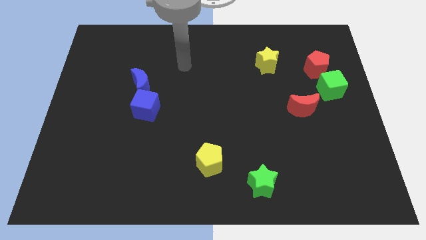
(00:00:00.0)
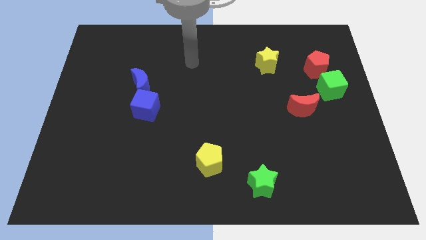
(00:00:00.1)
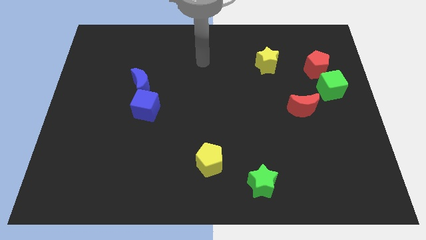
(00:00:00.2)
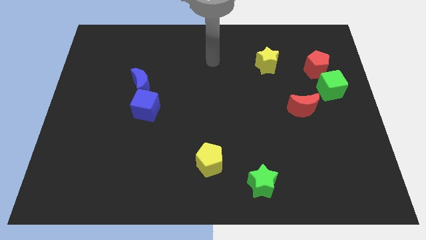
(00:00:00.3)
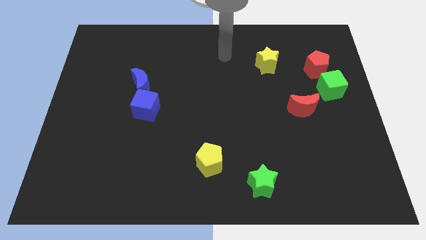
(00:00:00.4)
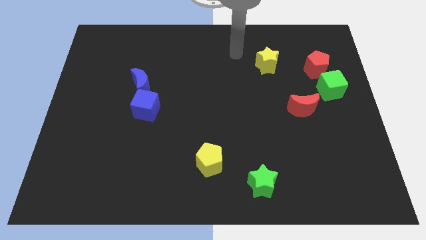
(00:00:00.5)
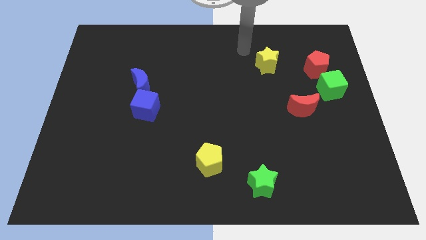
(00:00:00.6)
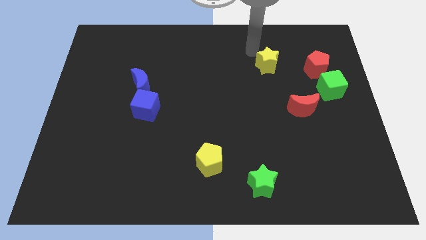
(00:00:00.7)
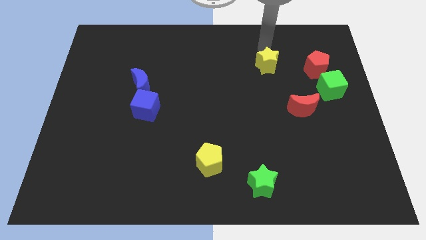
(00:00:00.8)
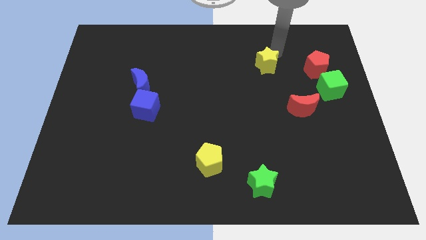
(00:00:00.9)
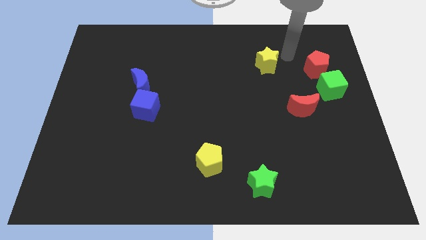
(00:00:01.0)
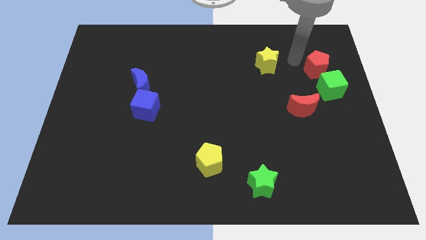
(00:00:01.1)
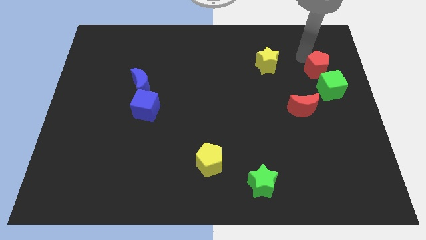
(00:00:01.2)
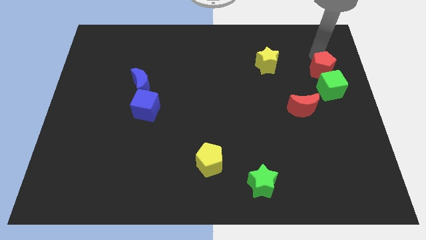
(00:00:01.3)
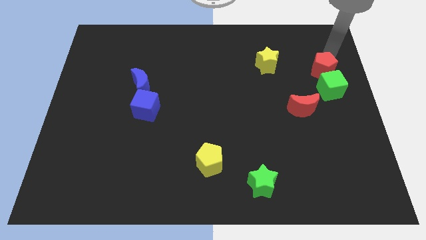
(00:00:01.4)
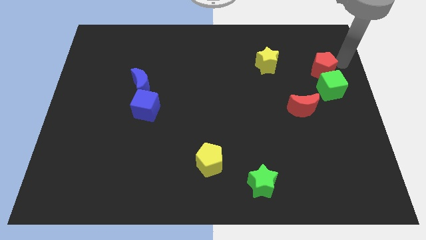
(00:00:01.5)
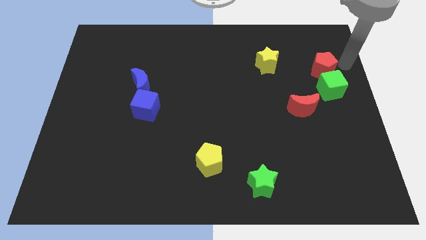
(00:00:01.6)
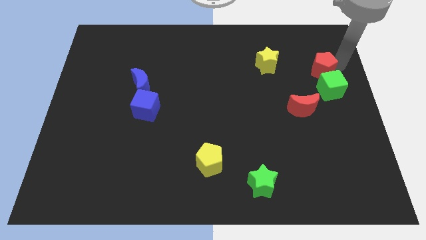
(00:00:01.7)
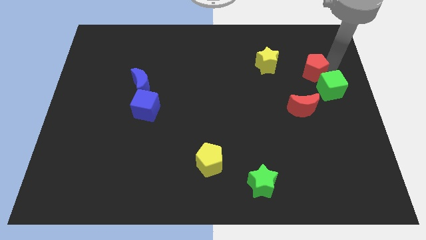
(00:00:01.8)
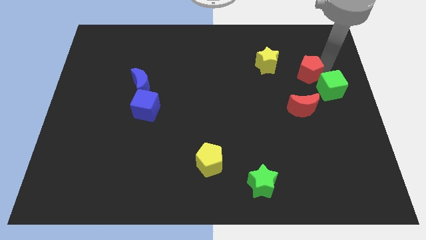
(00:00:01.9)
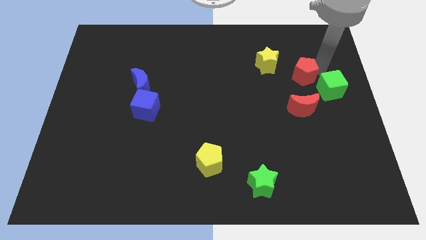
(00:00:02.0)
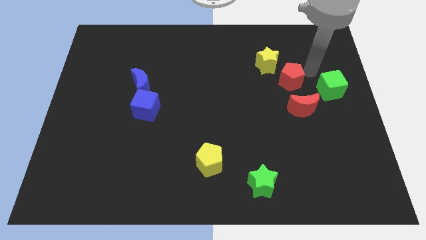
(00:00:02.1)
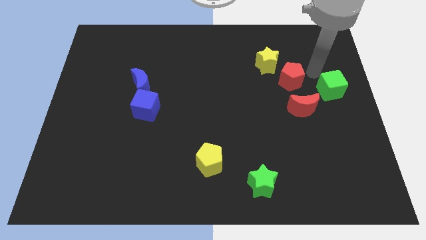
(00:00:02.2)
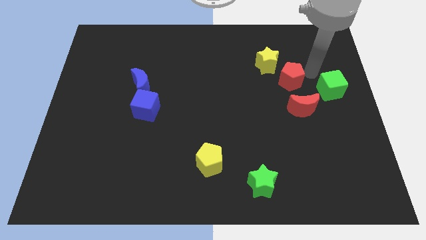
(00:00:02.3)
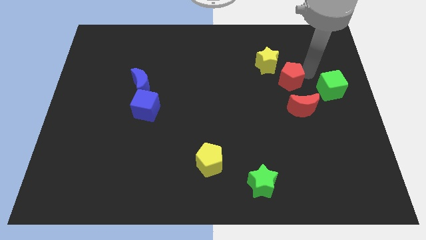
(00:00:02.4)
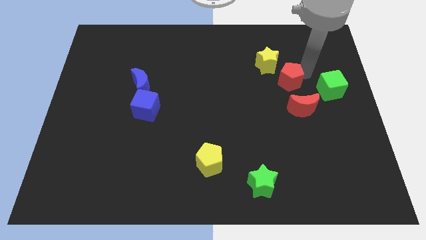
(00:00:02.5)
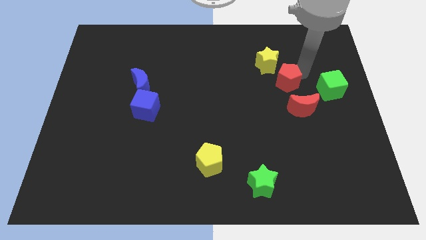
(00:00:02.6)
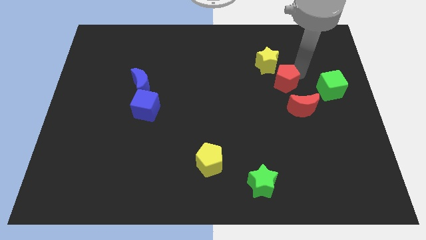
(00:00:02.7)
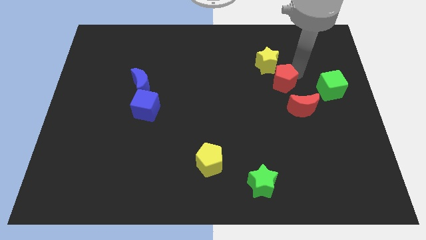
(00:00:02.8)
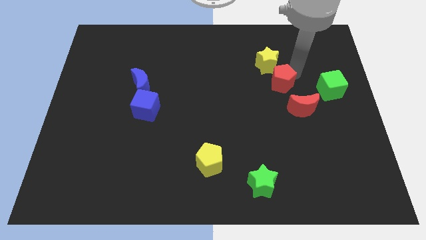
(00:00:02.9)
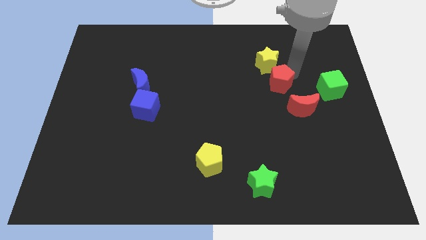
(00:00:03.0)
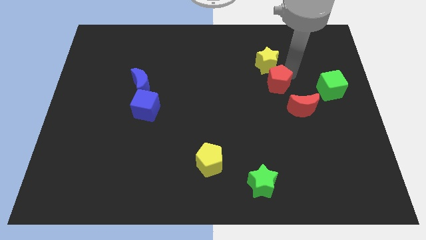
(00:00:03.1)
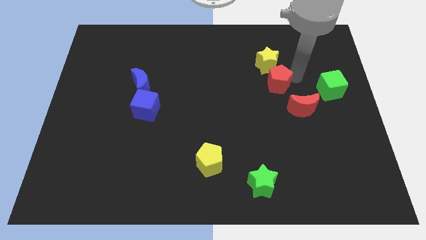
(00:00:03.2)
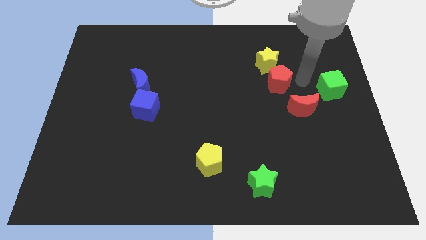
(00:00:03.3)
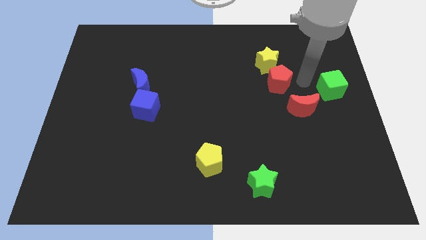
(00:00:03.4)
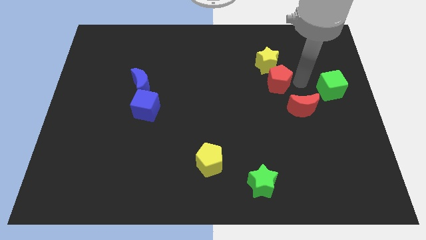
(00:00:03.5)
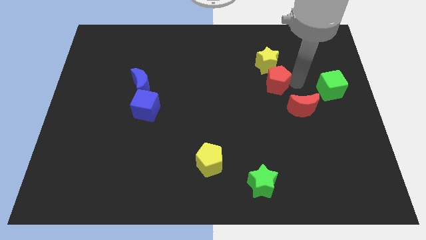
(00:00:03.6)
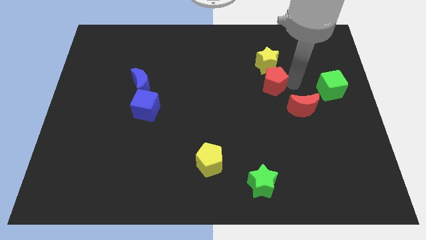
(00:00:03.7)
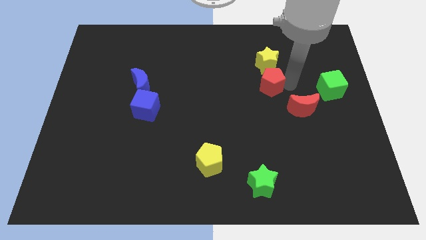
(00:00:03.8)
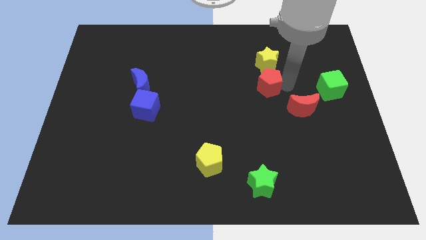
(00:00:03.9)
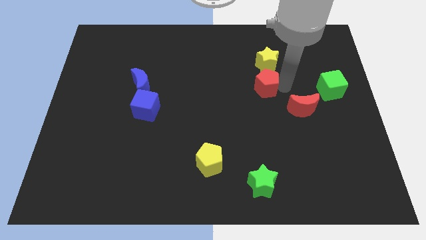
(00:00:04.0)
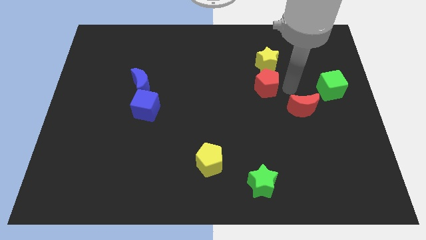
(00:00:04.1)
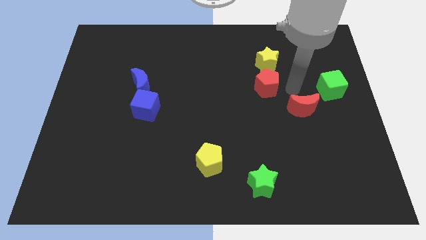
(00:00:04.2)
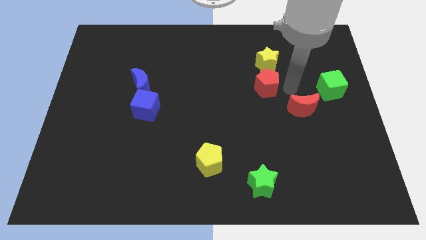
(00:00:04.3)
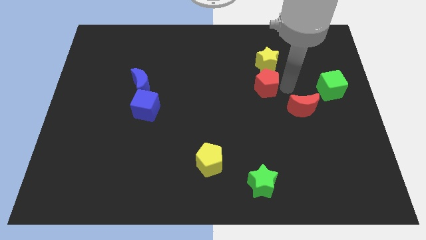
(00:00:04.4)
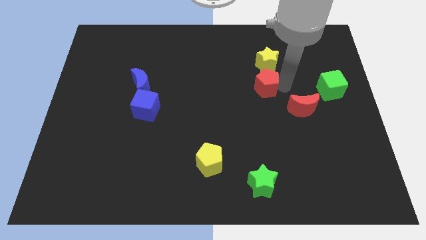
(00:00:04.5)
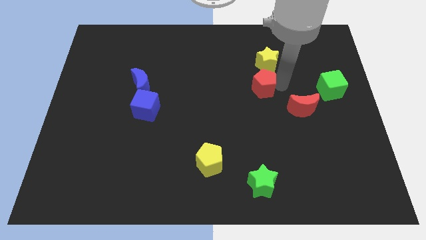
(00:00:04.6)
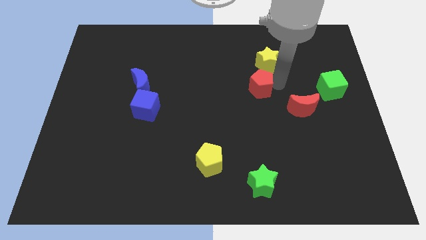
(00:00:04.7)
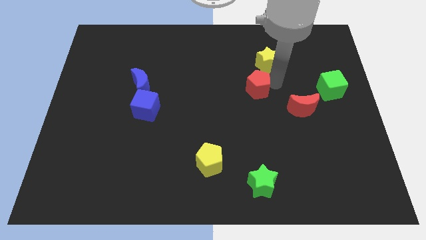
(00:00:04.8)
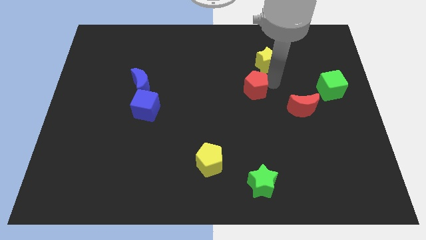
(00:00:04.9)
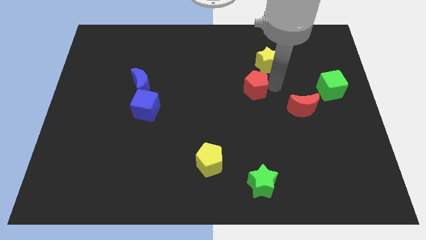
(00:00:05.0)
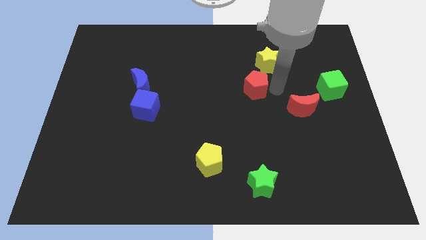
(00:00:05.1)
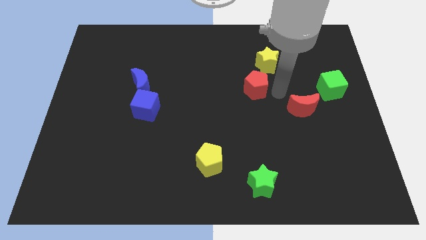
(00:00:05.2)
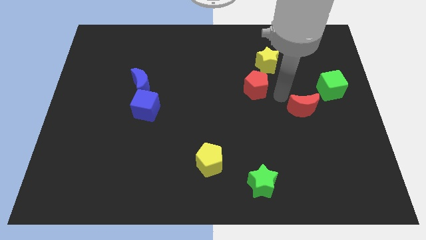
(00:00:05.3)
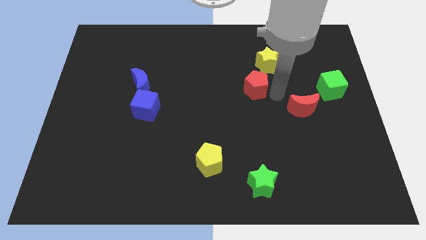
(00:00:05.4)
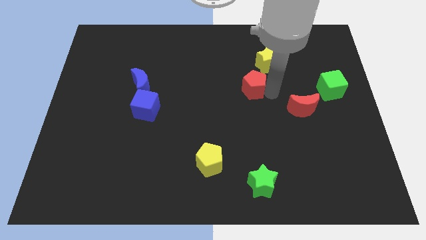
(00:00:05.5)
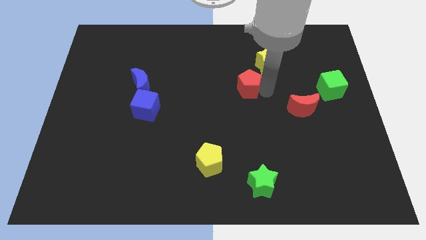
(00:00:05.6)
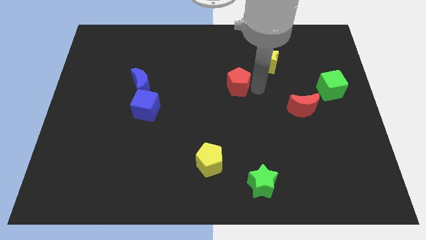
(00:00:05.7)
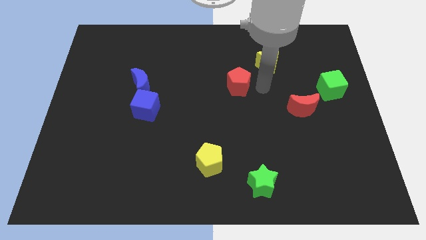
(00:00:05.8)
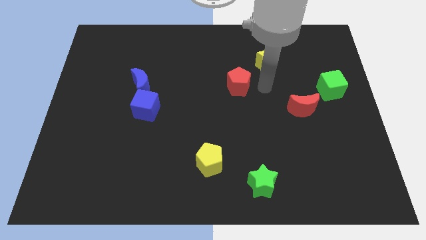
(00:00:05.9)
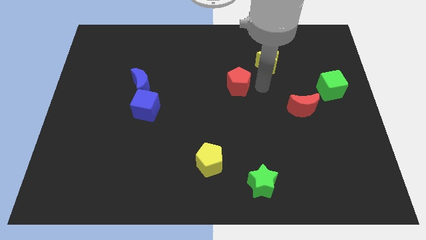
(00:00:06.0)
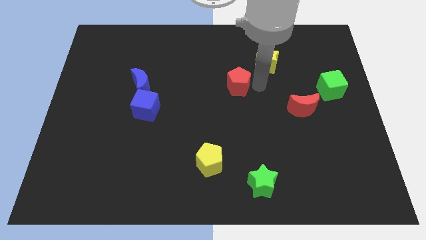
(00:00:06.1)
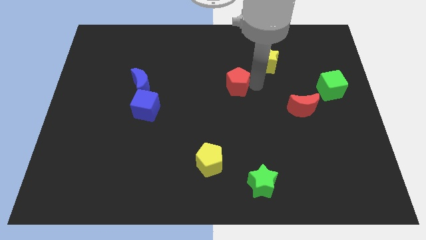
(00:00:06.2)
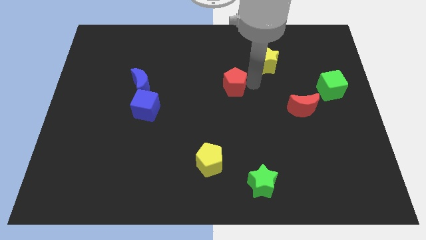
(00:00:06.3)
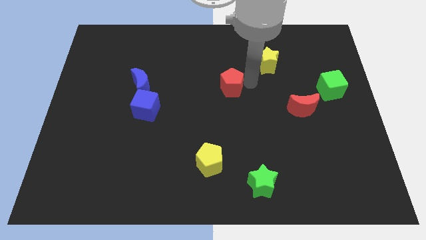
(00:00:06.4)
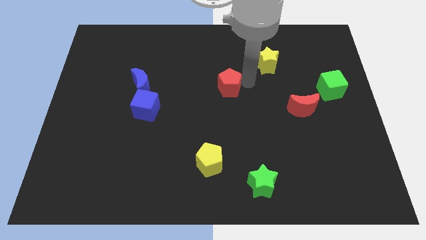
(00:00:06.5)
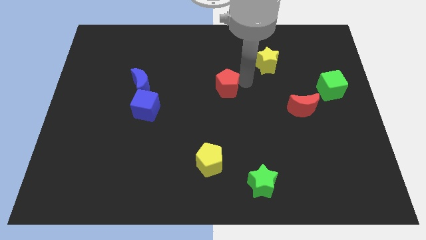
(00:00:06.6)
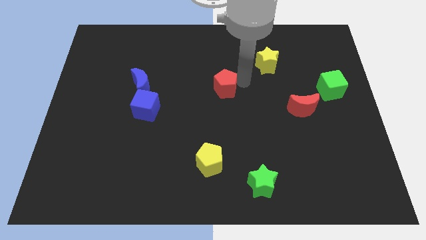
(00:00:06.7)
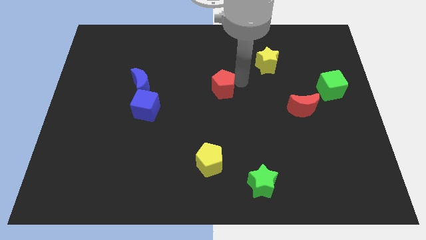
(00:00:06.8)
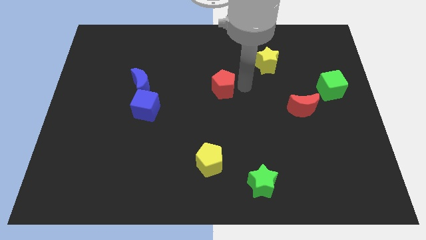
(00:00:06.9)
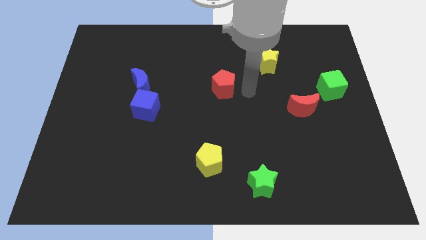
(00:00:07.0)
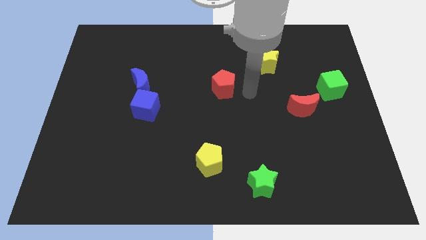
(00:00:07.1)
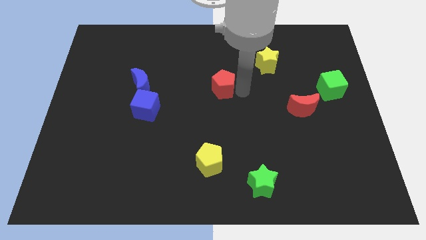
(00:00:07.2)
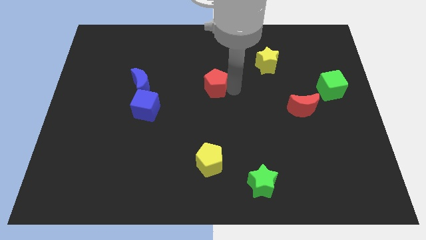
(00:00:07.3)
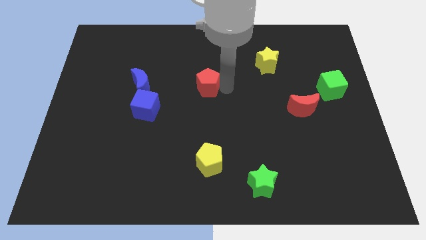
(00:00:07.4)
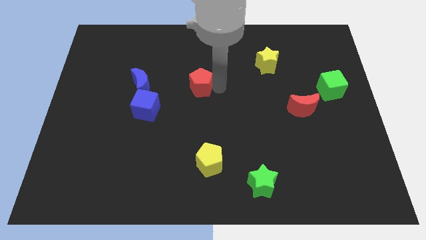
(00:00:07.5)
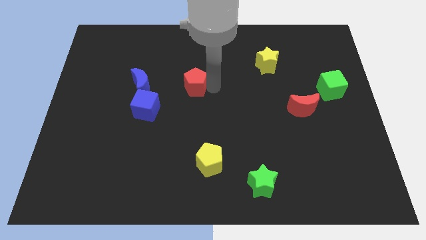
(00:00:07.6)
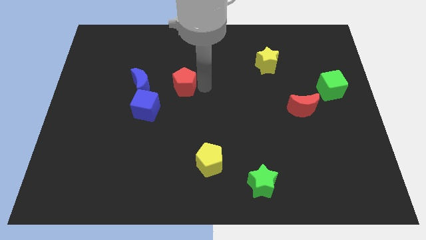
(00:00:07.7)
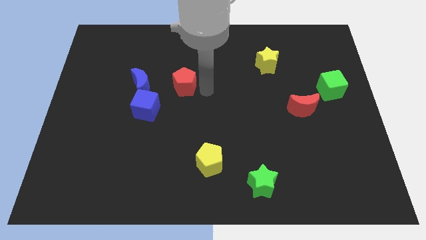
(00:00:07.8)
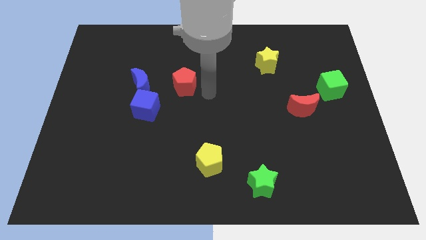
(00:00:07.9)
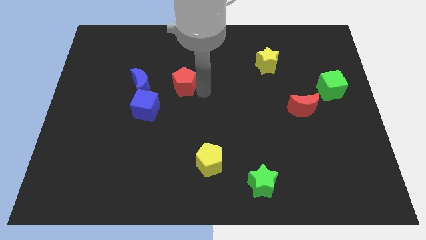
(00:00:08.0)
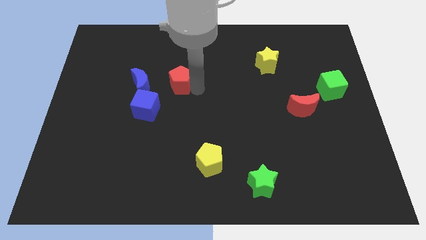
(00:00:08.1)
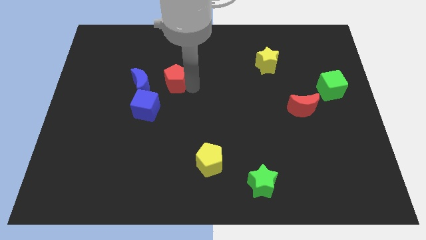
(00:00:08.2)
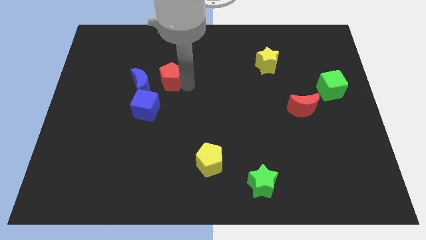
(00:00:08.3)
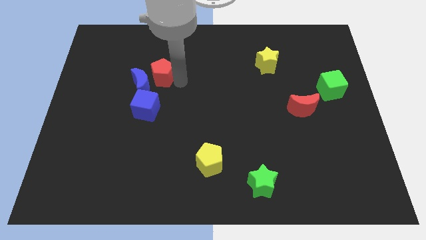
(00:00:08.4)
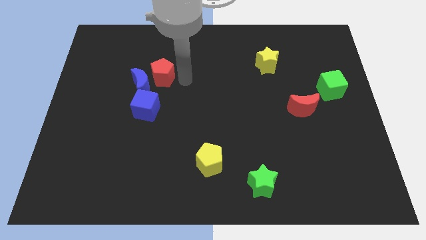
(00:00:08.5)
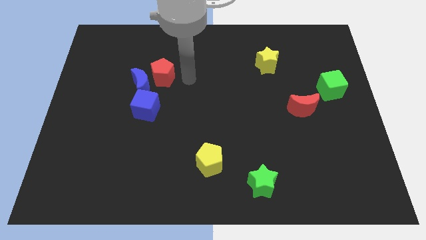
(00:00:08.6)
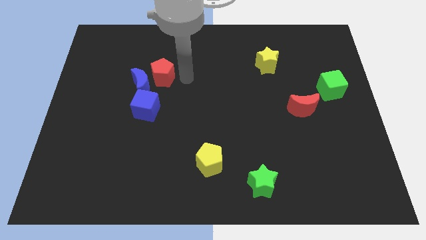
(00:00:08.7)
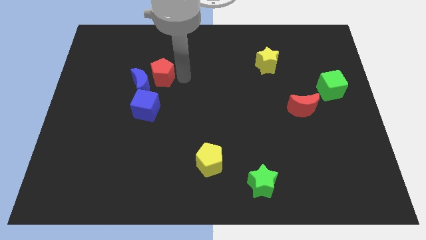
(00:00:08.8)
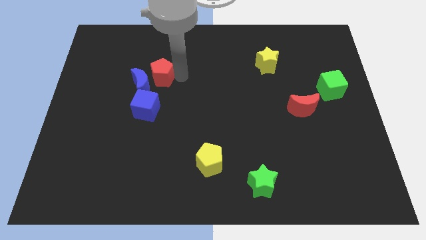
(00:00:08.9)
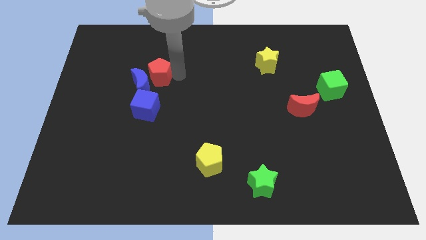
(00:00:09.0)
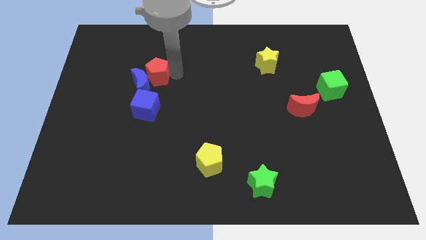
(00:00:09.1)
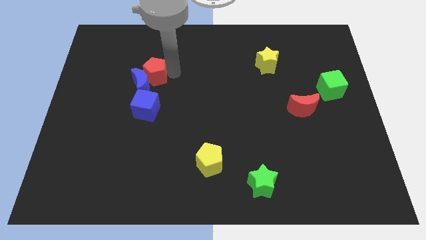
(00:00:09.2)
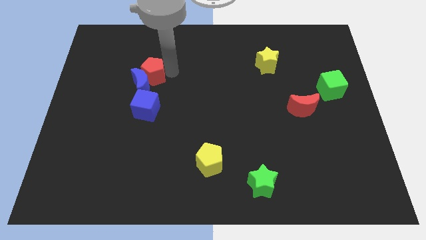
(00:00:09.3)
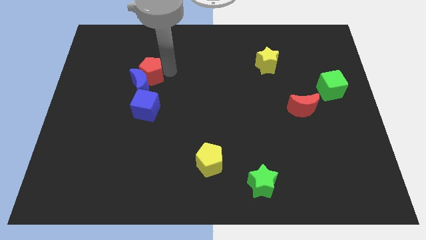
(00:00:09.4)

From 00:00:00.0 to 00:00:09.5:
move the red pentagon to the top left of the blue moon
